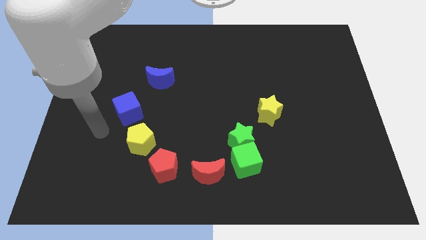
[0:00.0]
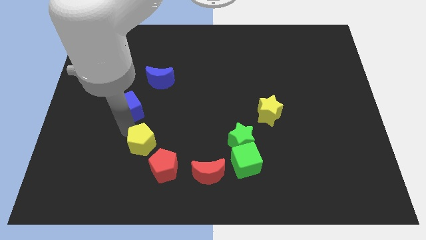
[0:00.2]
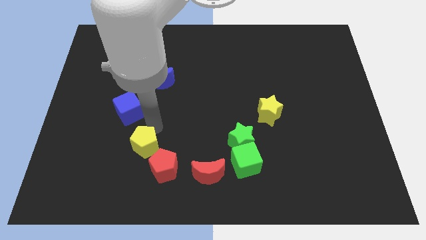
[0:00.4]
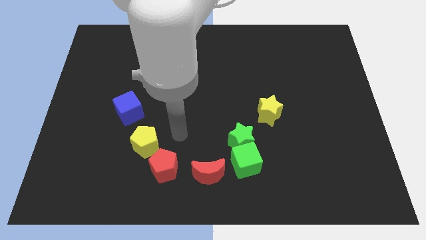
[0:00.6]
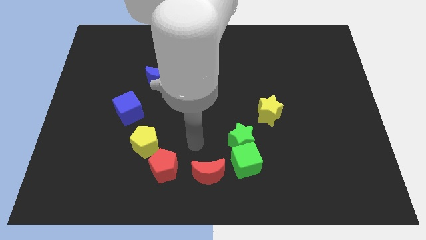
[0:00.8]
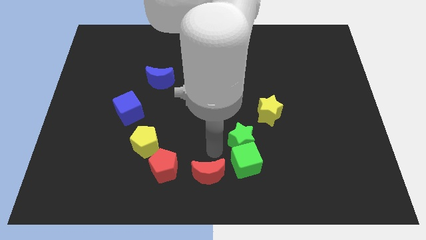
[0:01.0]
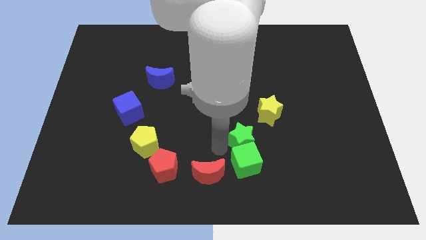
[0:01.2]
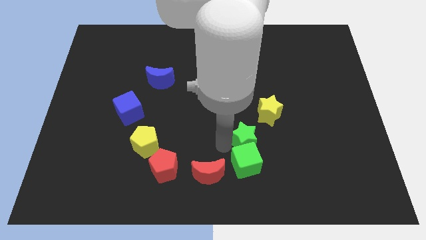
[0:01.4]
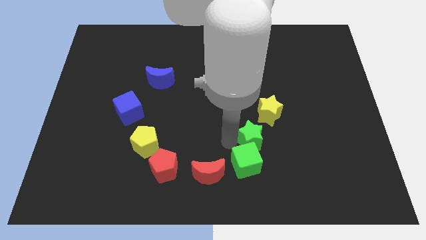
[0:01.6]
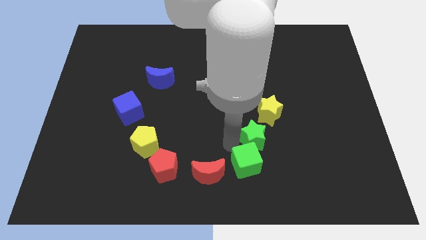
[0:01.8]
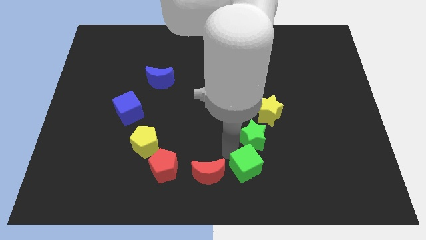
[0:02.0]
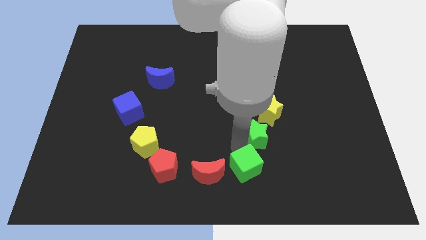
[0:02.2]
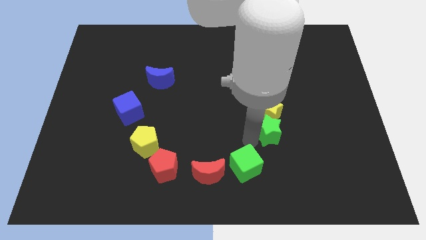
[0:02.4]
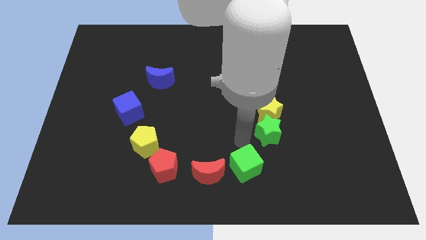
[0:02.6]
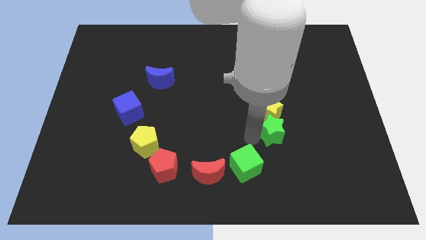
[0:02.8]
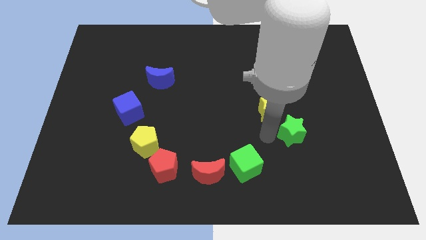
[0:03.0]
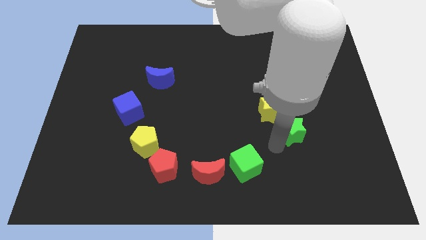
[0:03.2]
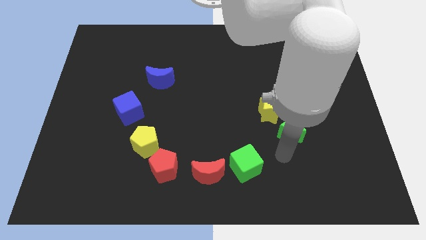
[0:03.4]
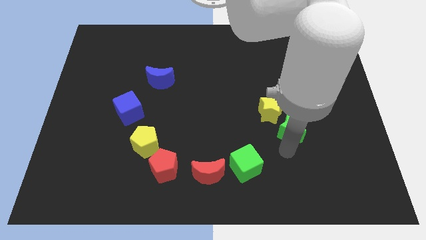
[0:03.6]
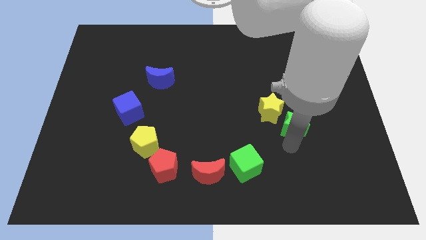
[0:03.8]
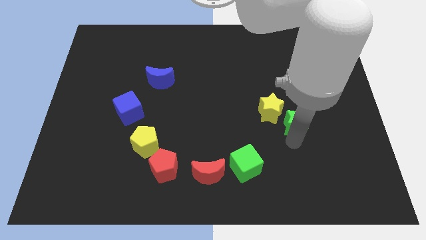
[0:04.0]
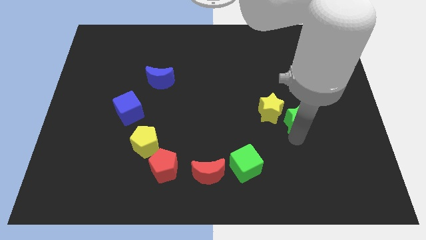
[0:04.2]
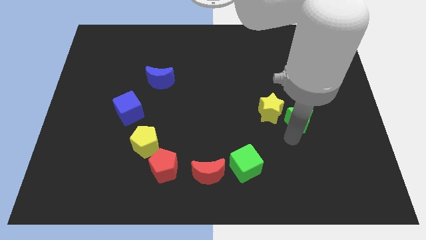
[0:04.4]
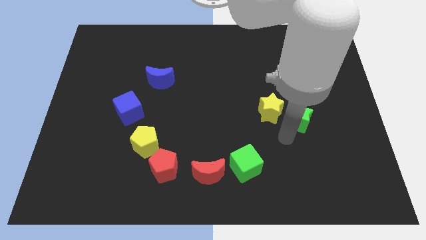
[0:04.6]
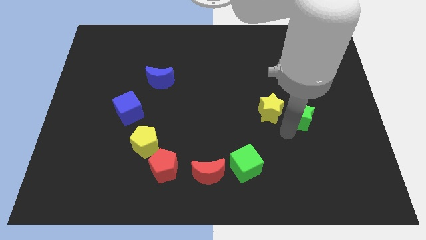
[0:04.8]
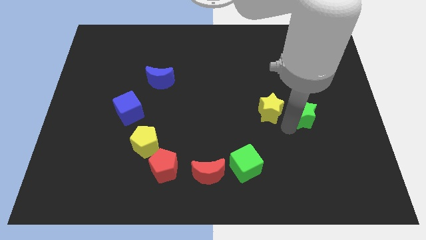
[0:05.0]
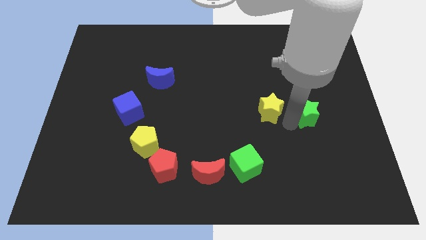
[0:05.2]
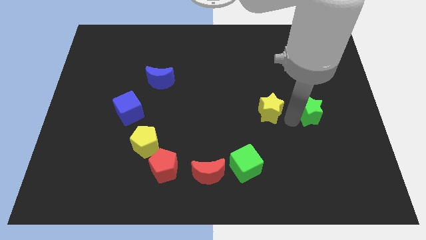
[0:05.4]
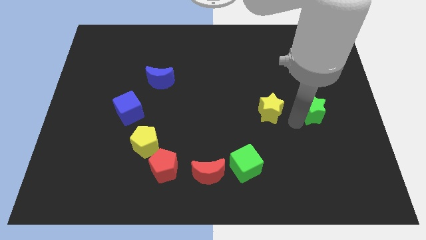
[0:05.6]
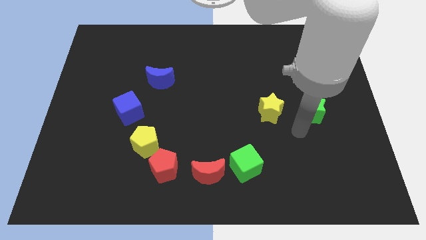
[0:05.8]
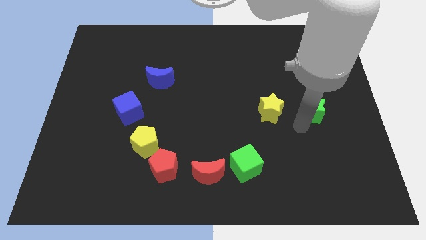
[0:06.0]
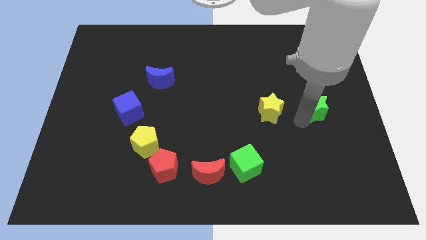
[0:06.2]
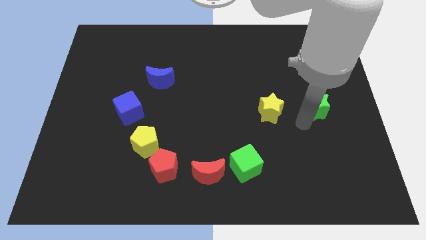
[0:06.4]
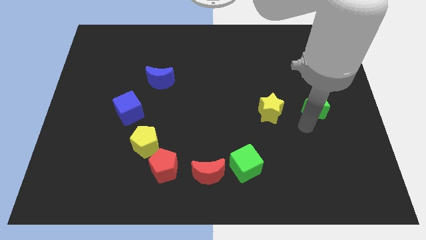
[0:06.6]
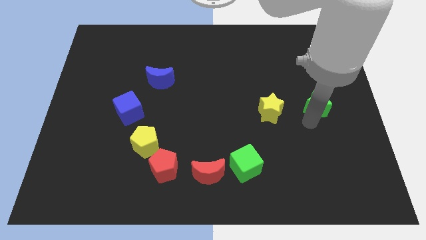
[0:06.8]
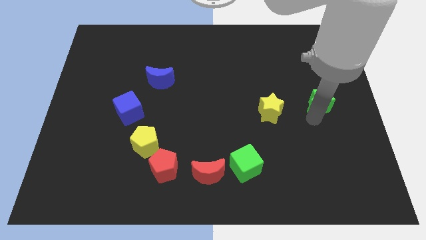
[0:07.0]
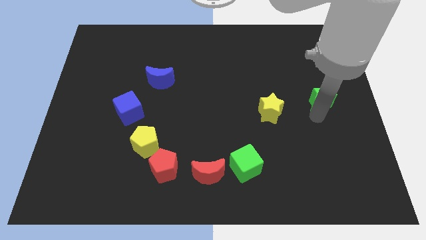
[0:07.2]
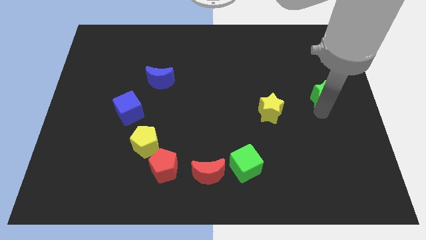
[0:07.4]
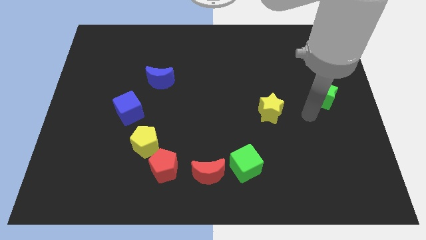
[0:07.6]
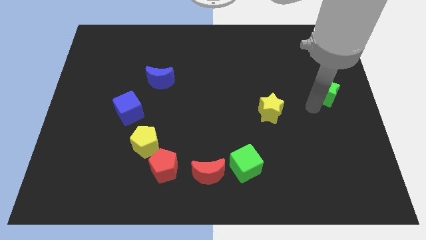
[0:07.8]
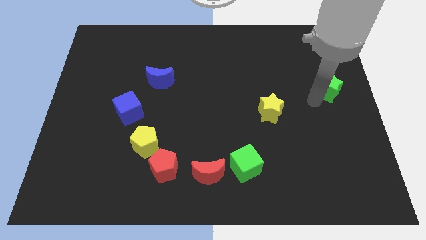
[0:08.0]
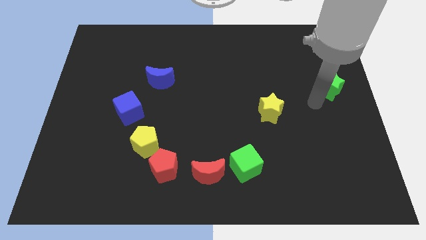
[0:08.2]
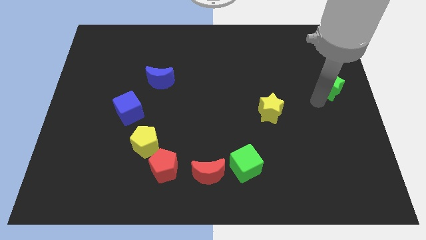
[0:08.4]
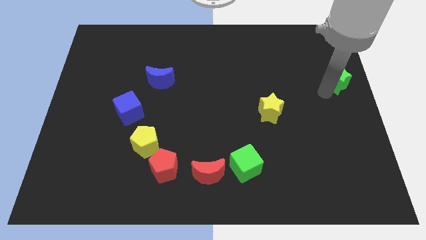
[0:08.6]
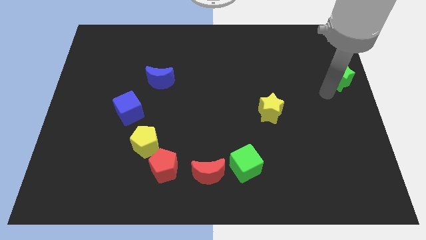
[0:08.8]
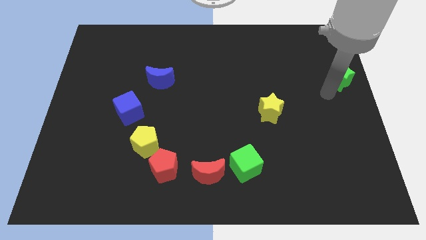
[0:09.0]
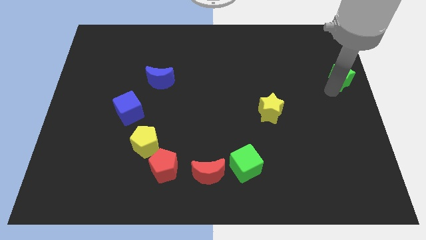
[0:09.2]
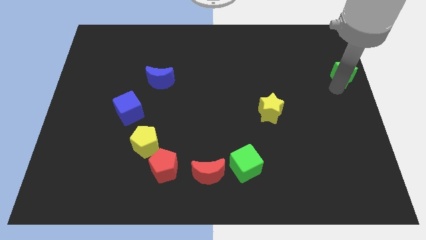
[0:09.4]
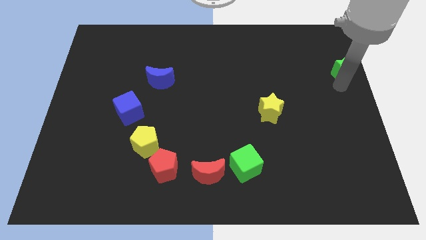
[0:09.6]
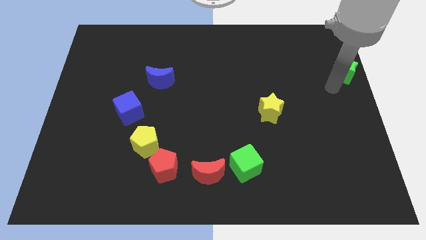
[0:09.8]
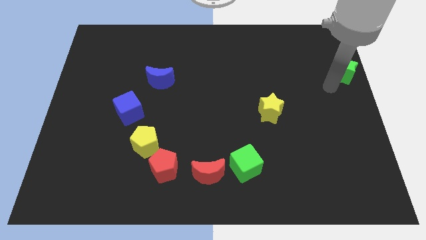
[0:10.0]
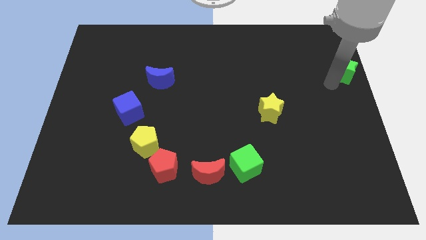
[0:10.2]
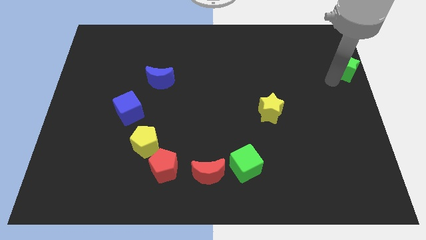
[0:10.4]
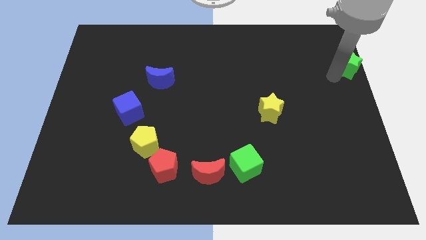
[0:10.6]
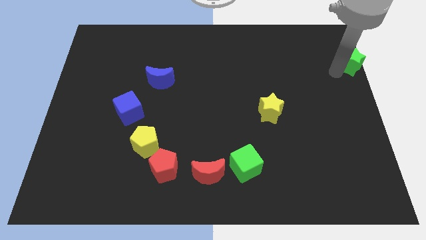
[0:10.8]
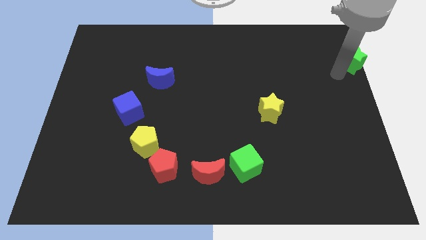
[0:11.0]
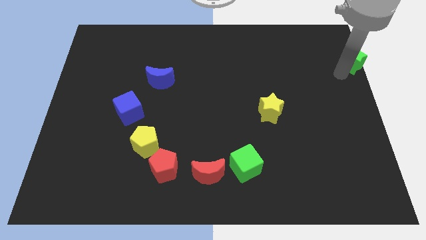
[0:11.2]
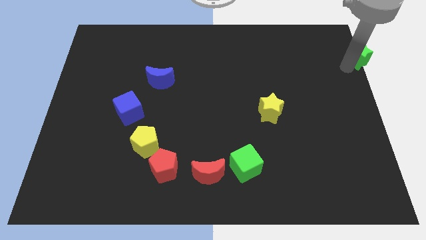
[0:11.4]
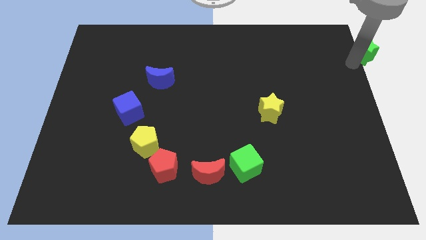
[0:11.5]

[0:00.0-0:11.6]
put the green star to the upper right corner

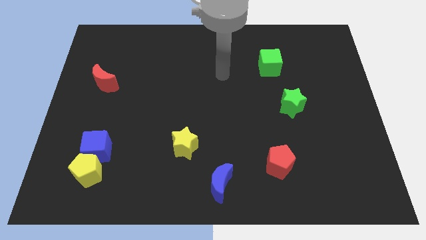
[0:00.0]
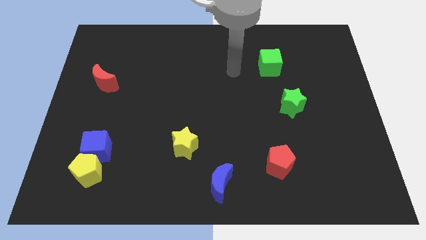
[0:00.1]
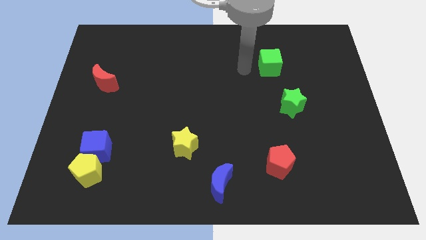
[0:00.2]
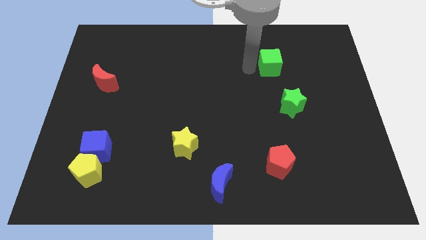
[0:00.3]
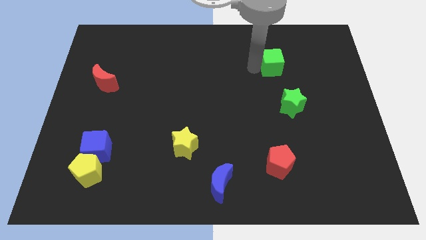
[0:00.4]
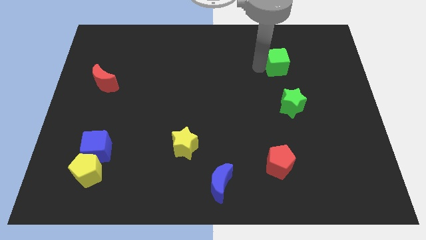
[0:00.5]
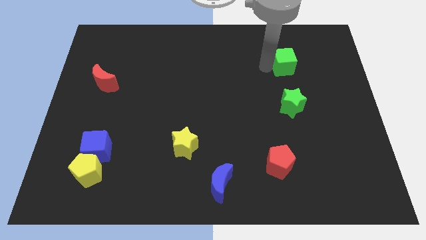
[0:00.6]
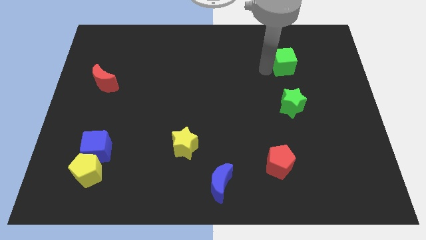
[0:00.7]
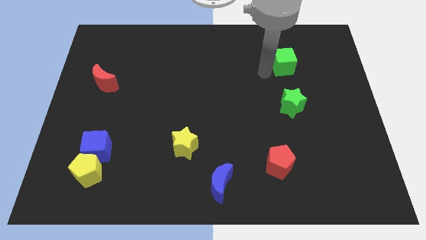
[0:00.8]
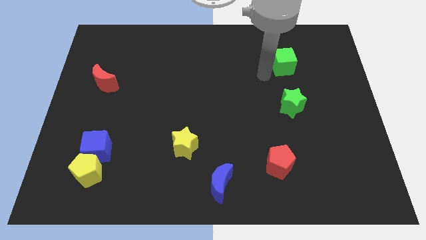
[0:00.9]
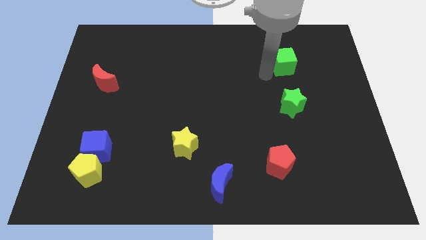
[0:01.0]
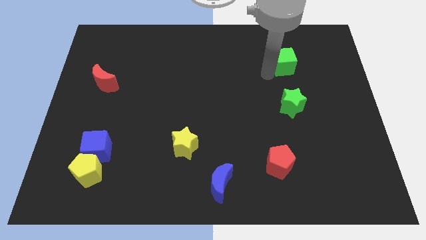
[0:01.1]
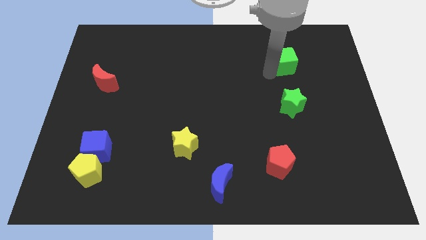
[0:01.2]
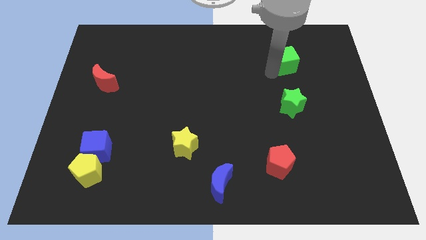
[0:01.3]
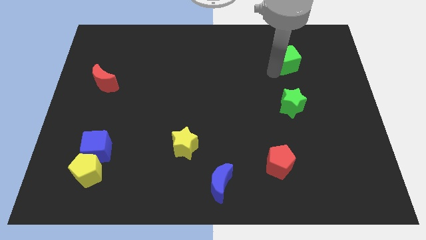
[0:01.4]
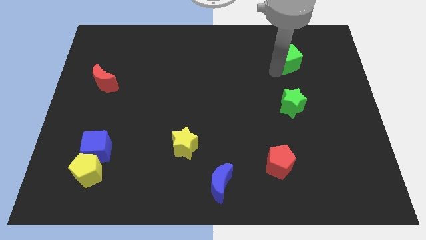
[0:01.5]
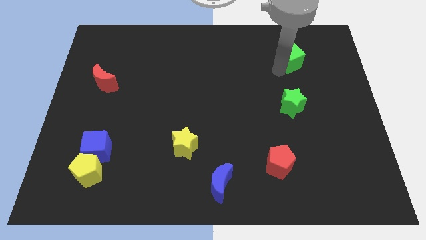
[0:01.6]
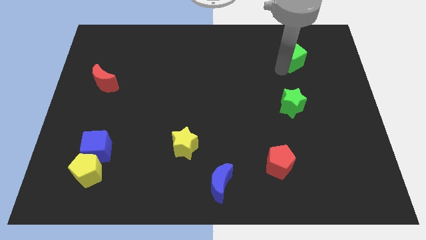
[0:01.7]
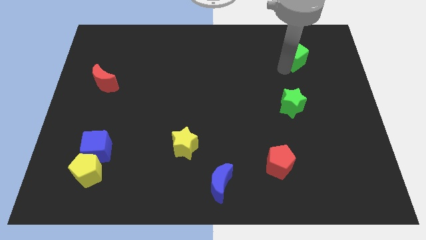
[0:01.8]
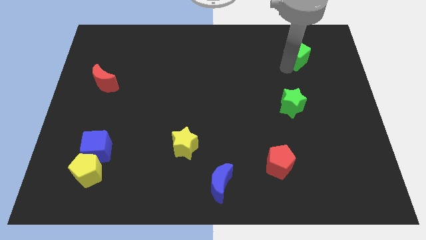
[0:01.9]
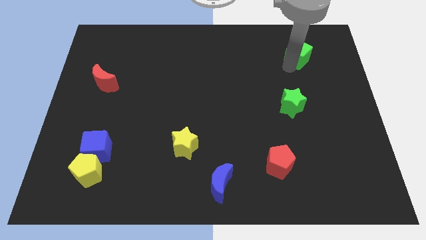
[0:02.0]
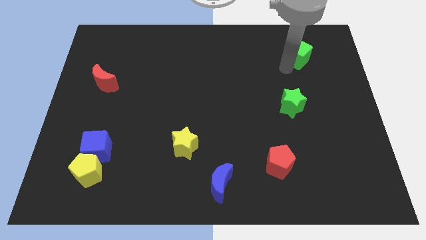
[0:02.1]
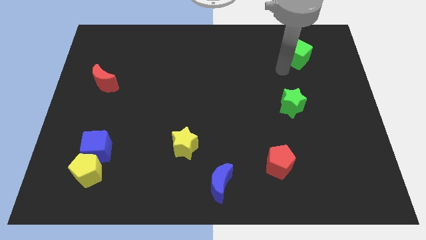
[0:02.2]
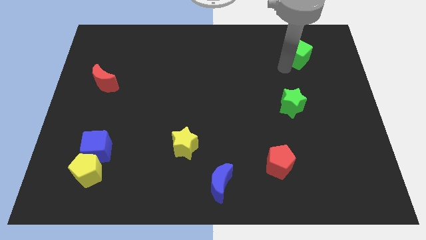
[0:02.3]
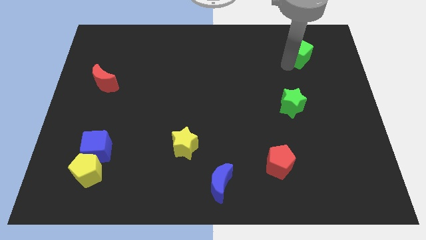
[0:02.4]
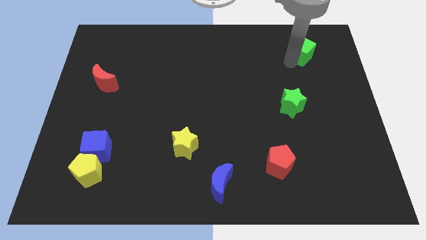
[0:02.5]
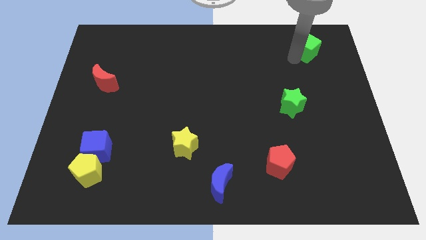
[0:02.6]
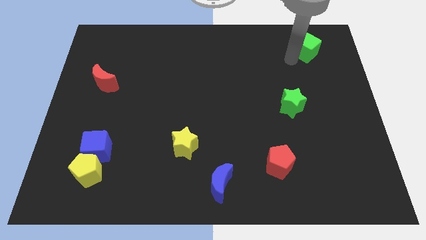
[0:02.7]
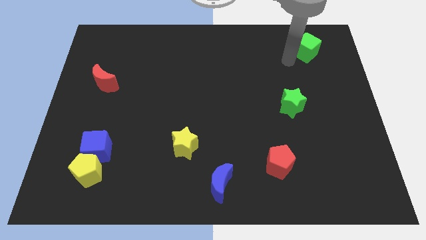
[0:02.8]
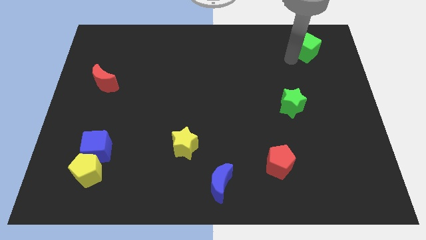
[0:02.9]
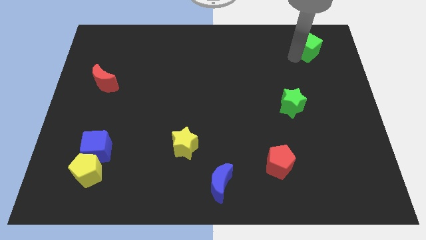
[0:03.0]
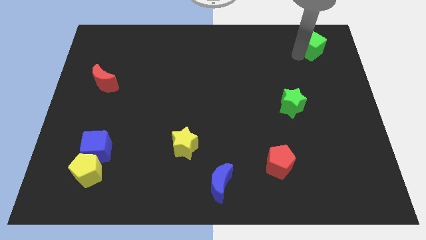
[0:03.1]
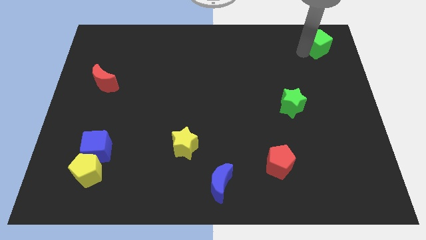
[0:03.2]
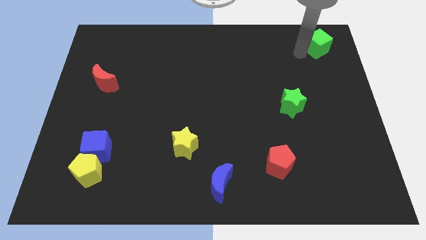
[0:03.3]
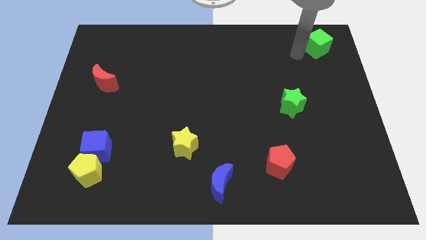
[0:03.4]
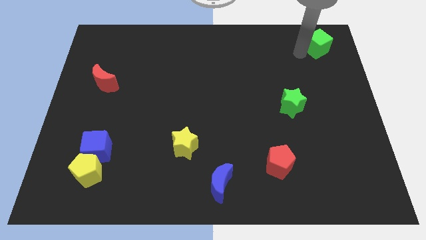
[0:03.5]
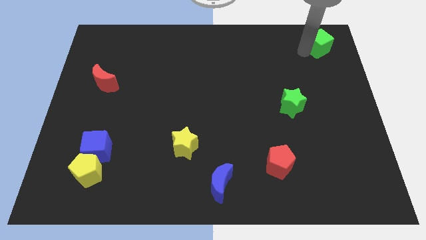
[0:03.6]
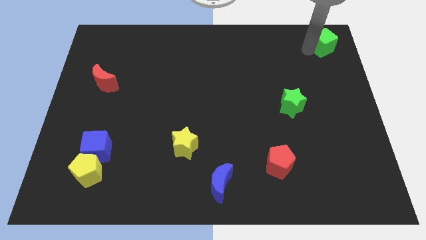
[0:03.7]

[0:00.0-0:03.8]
push the green cube to the top right
